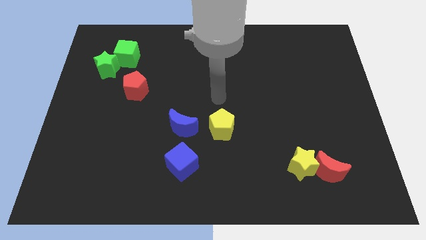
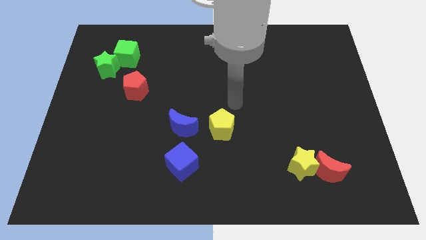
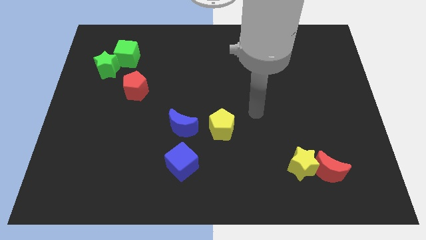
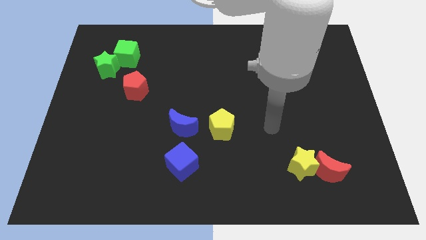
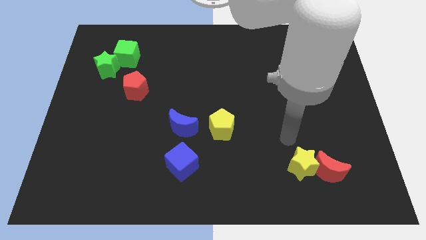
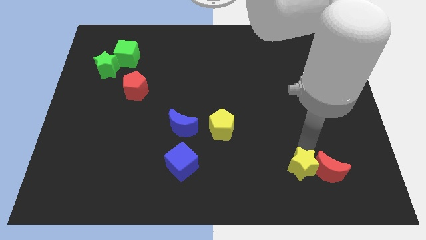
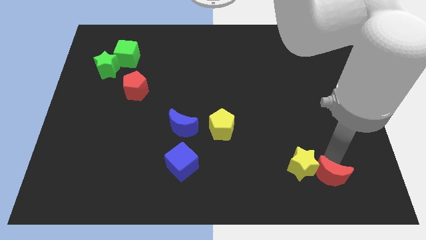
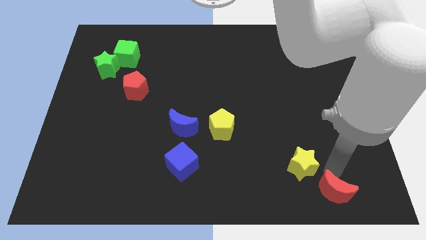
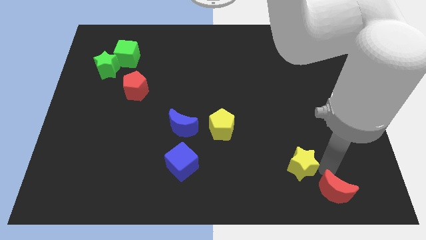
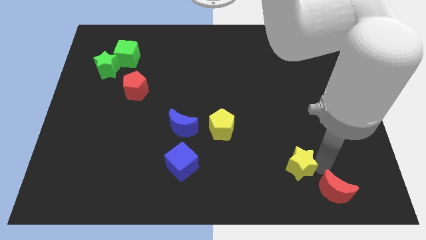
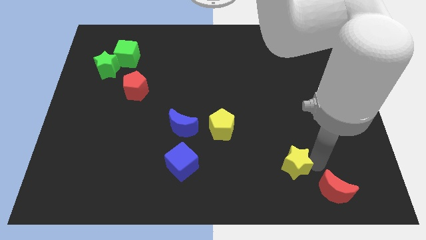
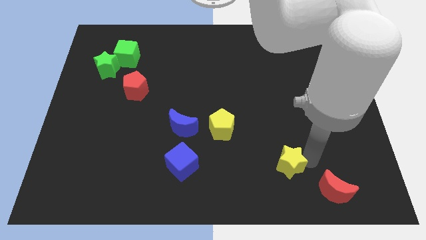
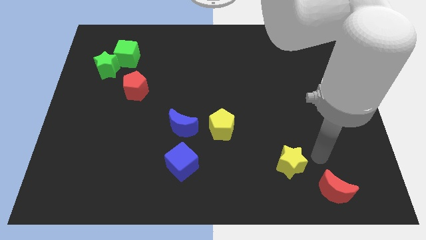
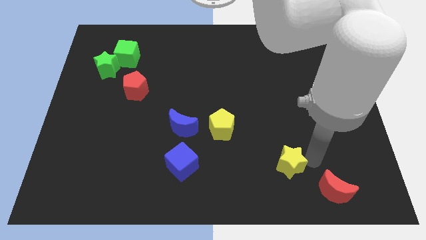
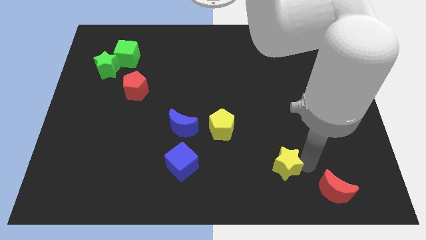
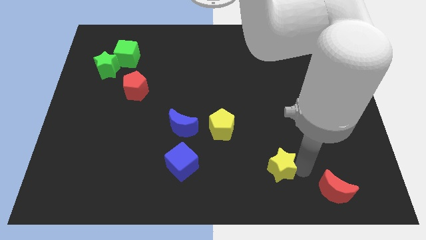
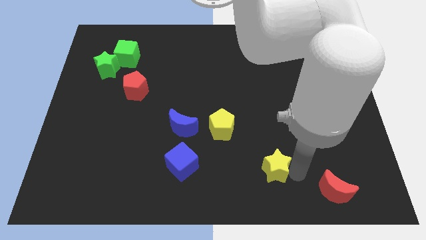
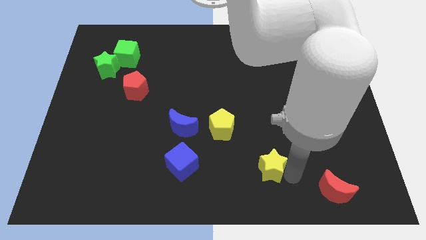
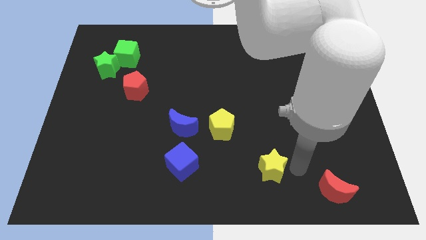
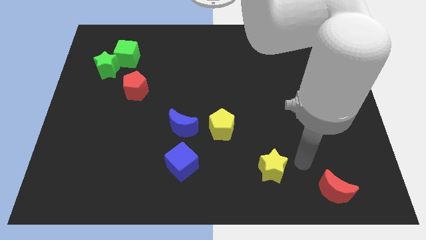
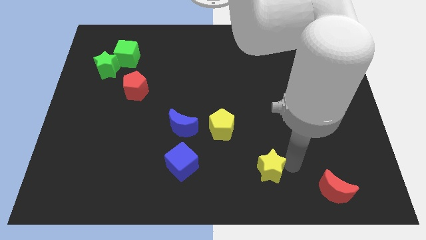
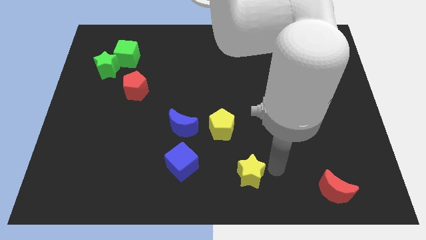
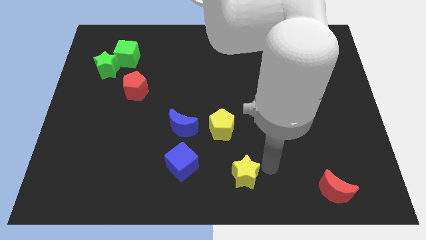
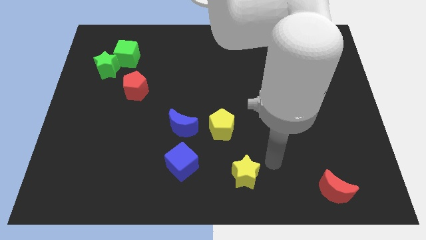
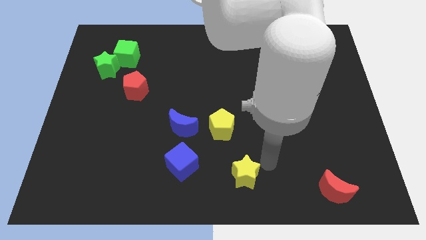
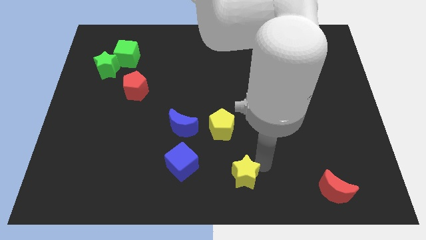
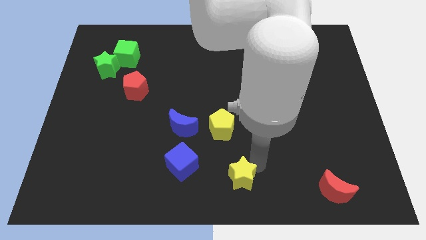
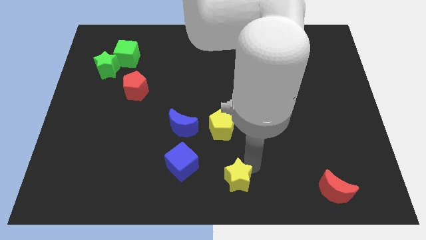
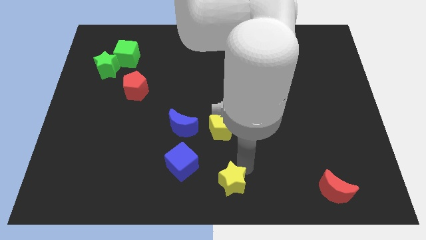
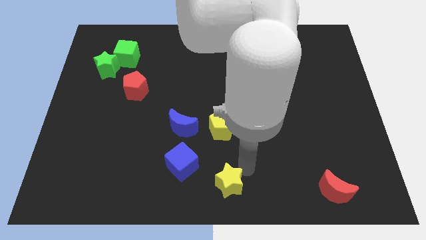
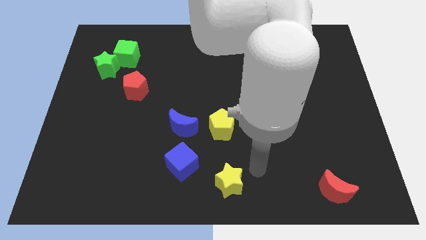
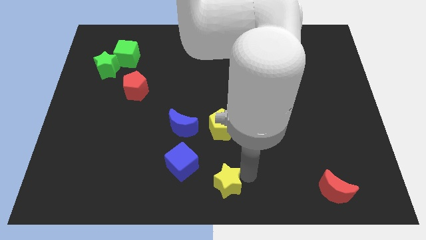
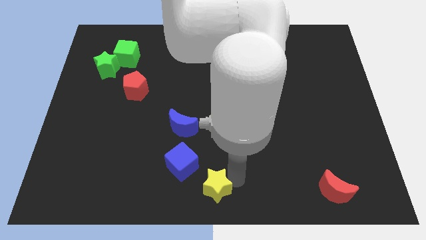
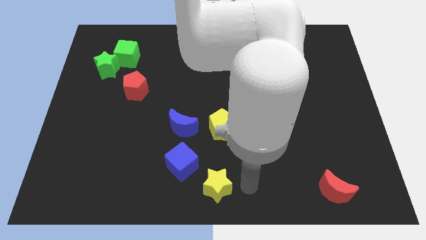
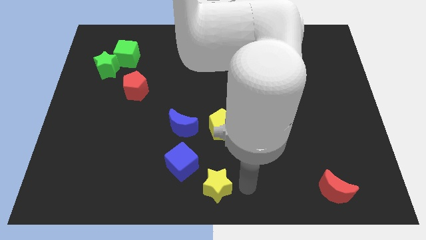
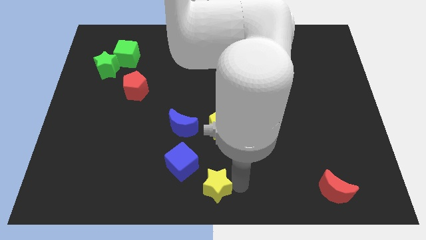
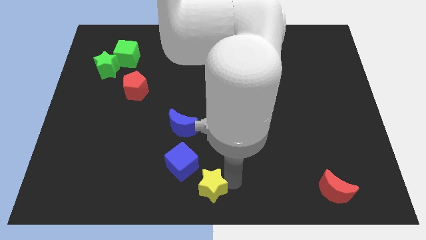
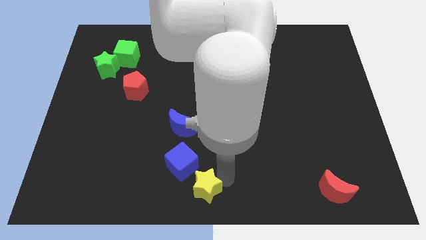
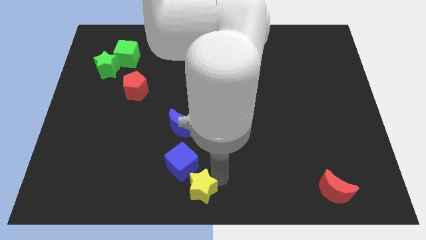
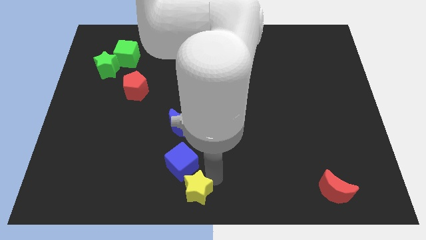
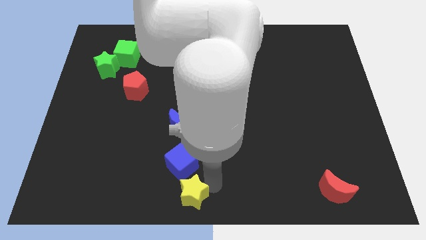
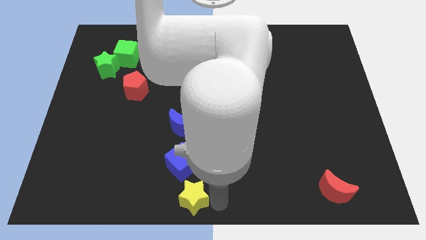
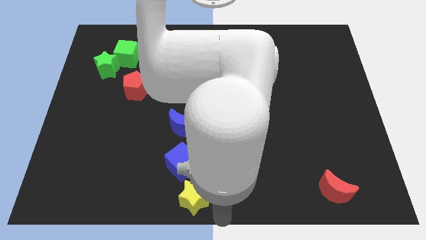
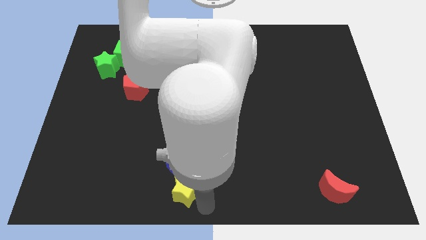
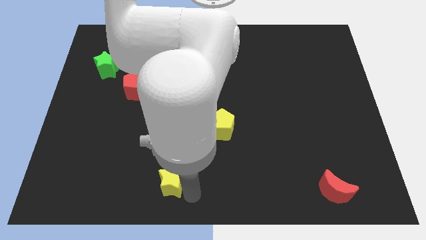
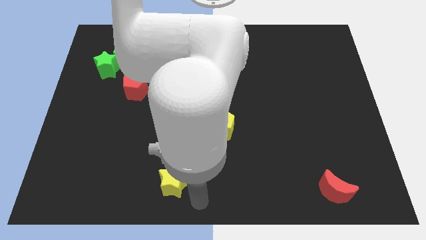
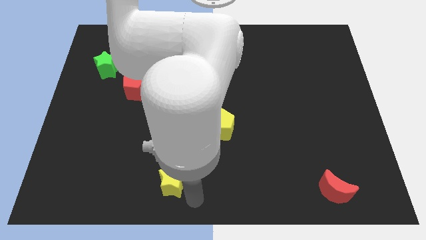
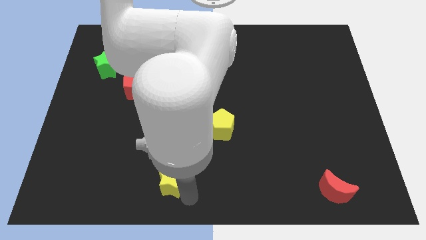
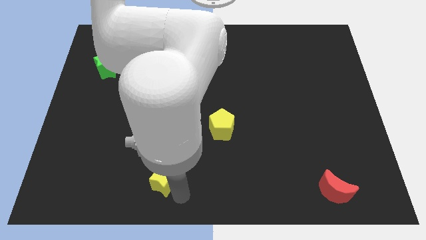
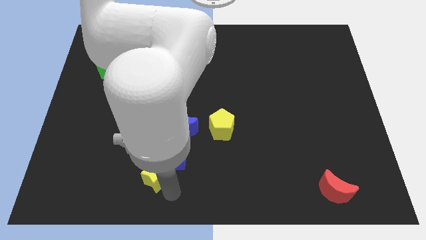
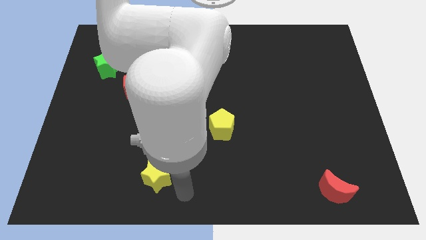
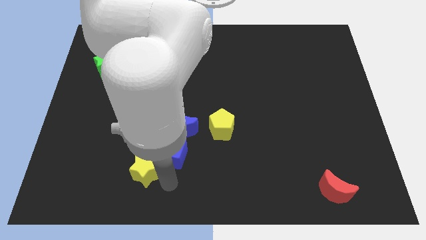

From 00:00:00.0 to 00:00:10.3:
slide the yellow star left of the blue cube
